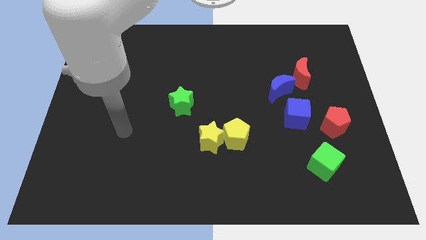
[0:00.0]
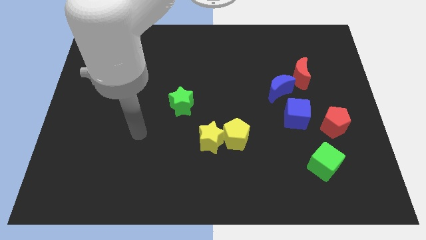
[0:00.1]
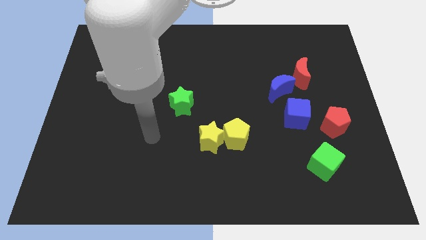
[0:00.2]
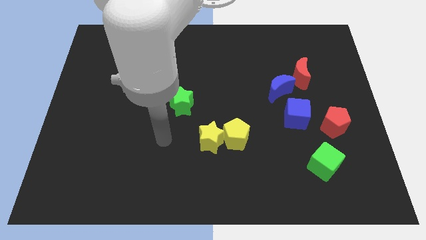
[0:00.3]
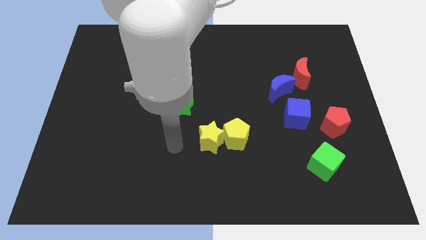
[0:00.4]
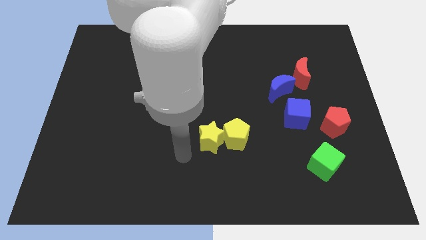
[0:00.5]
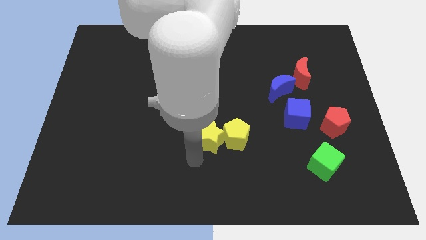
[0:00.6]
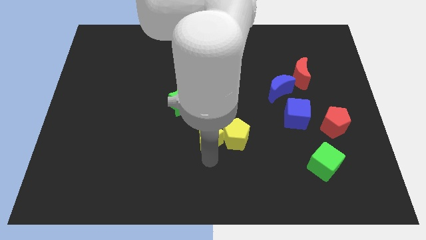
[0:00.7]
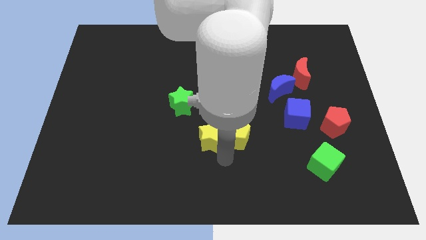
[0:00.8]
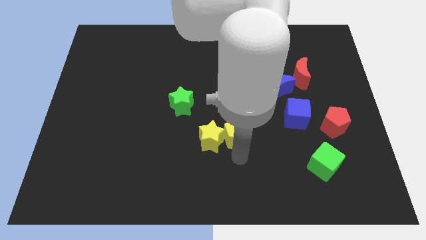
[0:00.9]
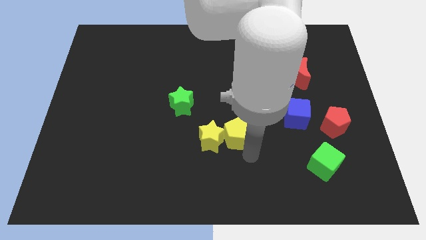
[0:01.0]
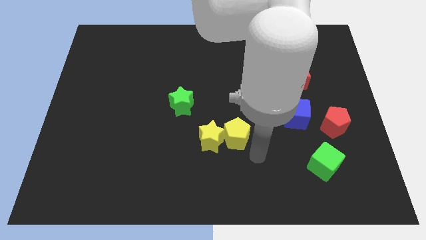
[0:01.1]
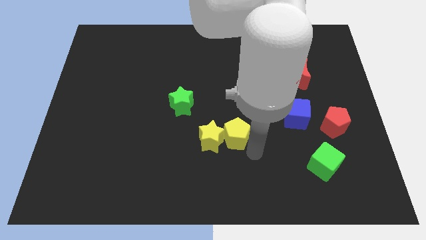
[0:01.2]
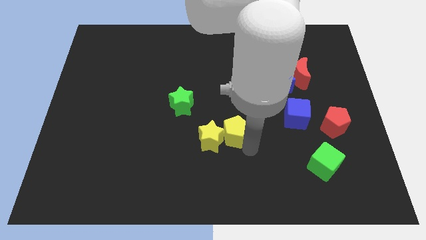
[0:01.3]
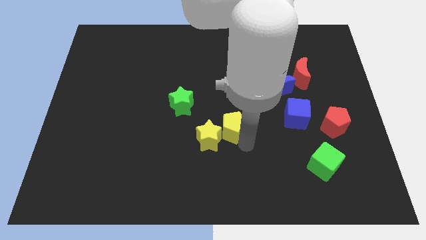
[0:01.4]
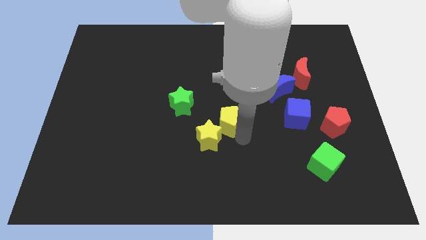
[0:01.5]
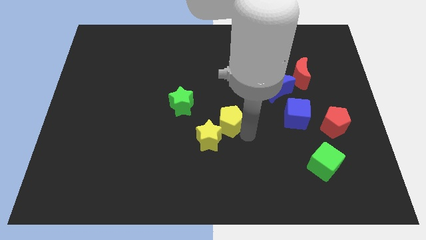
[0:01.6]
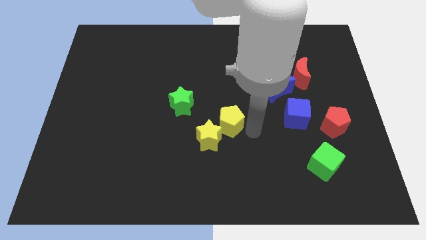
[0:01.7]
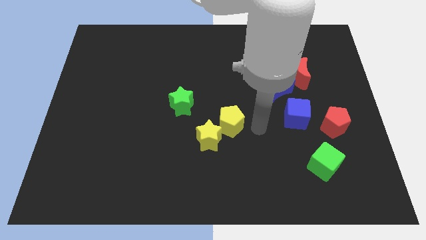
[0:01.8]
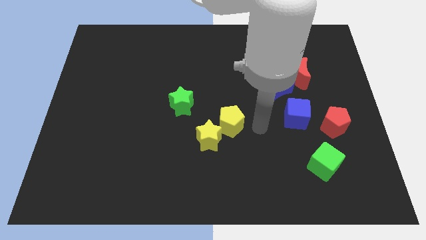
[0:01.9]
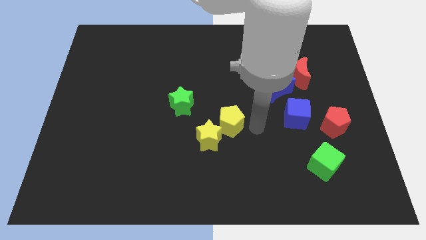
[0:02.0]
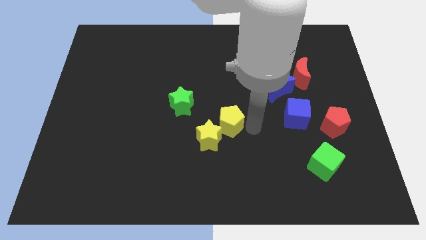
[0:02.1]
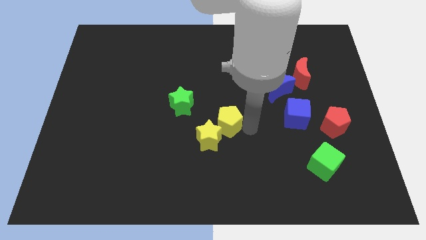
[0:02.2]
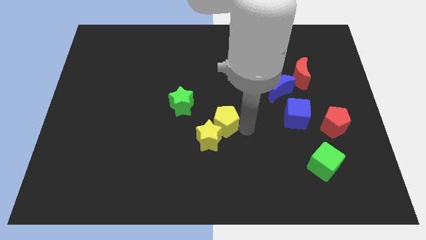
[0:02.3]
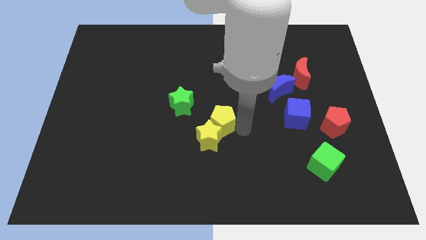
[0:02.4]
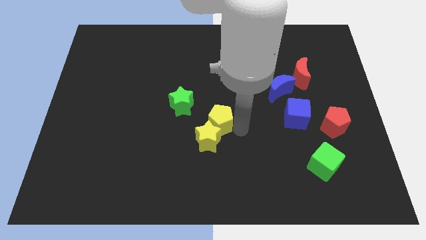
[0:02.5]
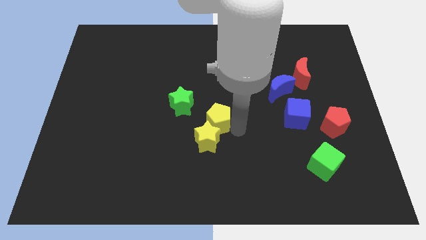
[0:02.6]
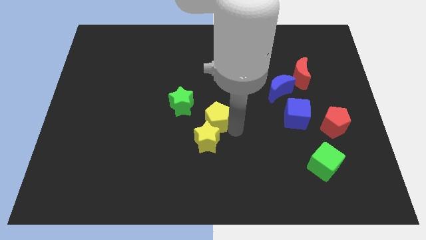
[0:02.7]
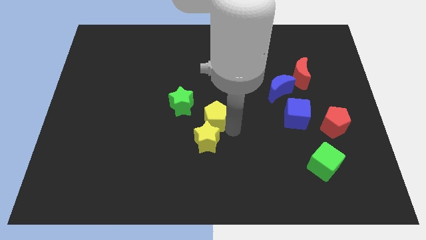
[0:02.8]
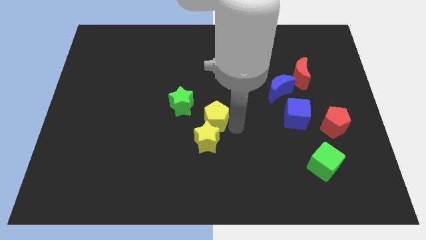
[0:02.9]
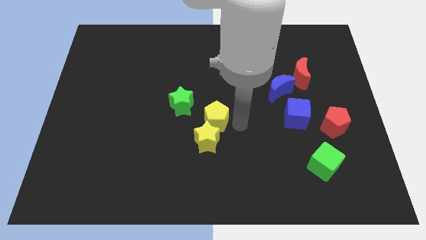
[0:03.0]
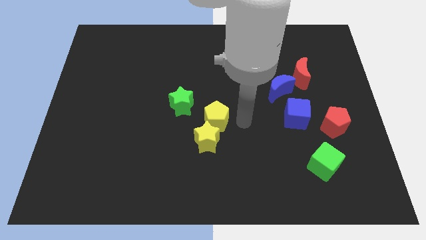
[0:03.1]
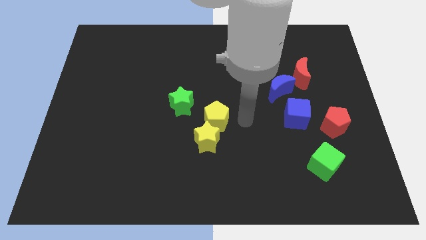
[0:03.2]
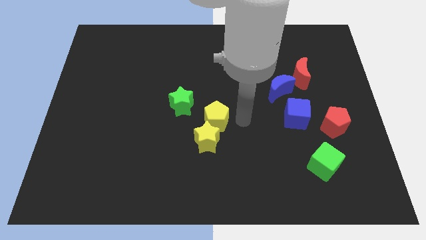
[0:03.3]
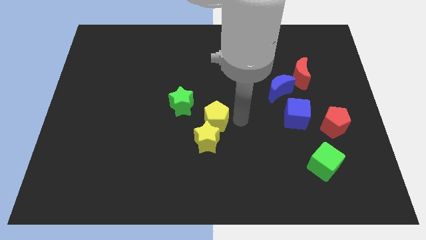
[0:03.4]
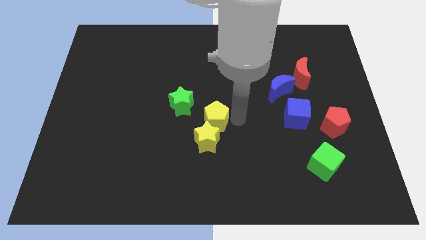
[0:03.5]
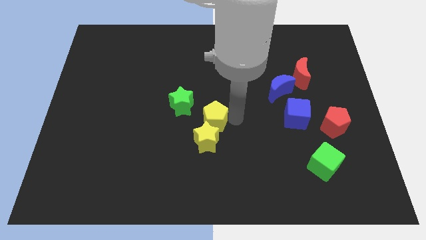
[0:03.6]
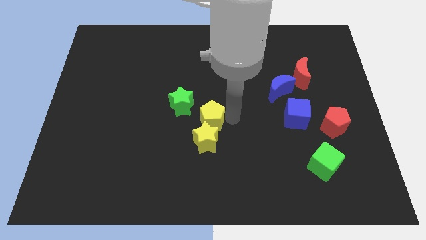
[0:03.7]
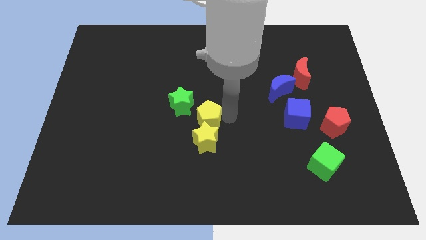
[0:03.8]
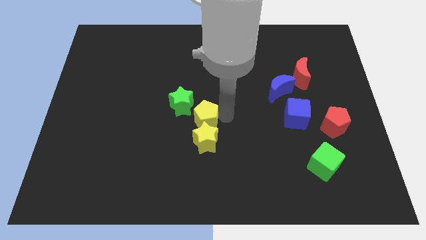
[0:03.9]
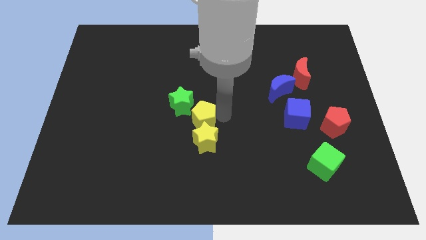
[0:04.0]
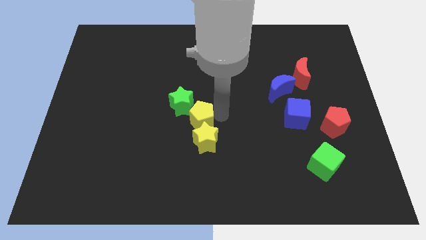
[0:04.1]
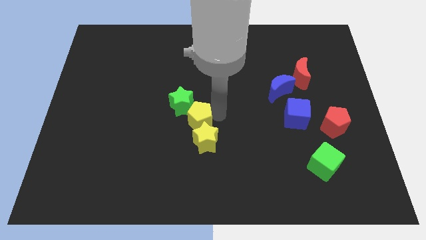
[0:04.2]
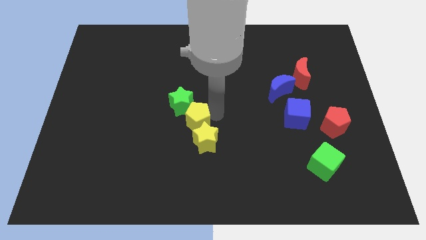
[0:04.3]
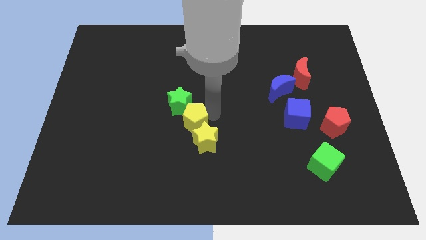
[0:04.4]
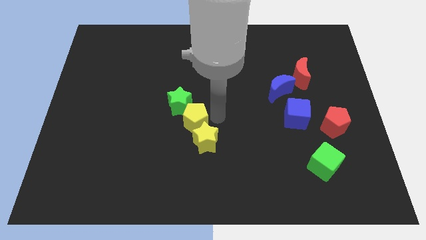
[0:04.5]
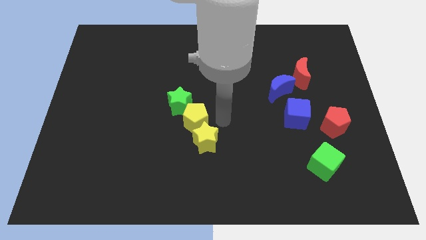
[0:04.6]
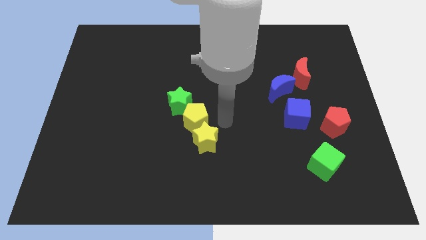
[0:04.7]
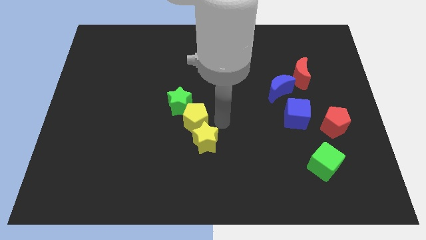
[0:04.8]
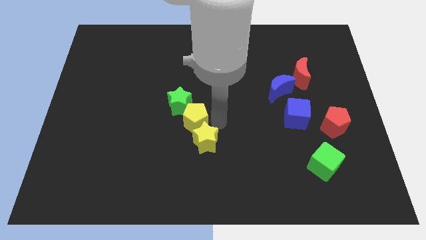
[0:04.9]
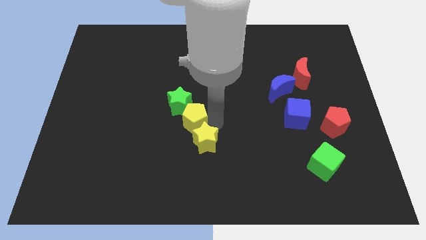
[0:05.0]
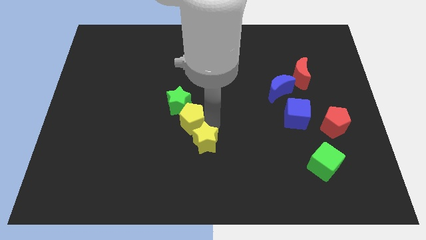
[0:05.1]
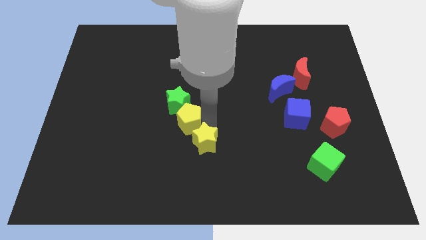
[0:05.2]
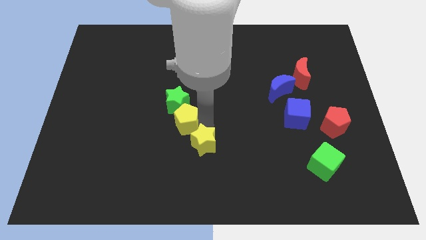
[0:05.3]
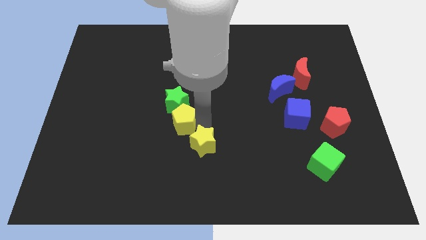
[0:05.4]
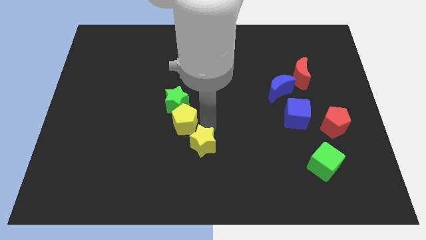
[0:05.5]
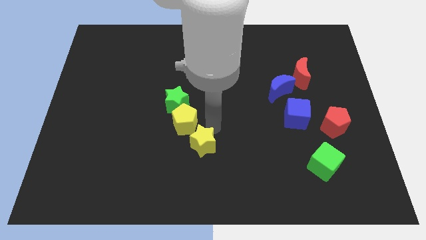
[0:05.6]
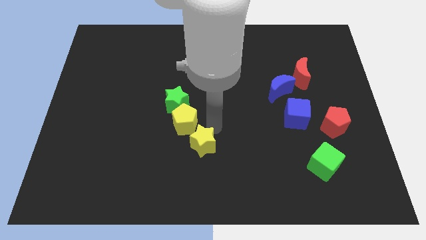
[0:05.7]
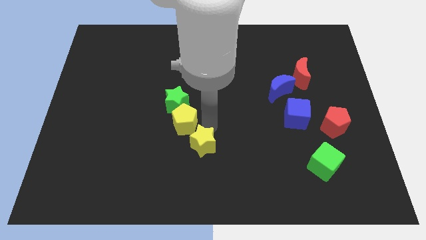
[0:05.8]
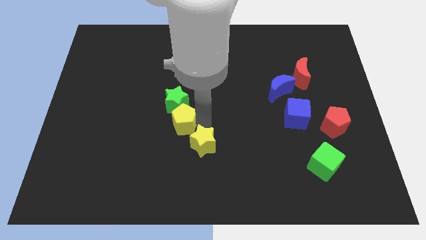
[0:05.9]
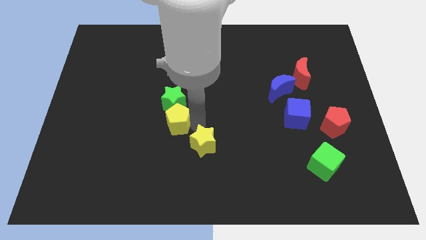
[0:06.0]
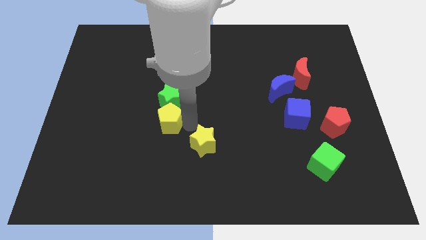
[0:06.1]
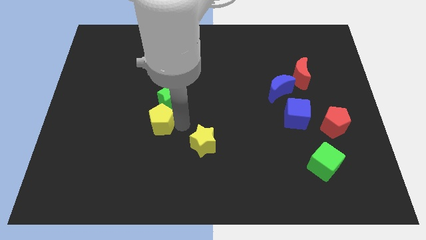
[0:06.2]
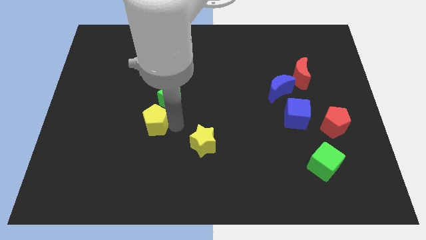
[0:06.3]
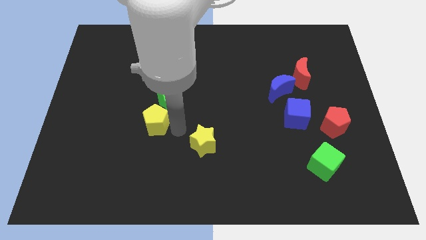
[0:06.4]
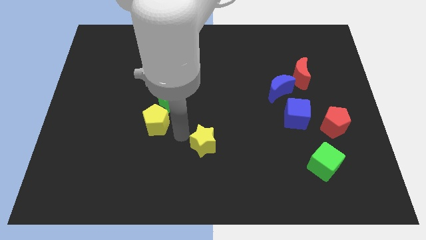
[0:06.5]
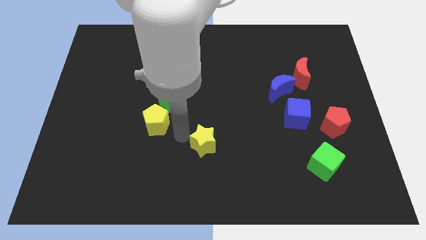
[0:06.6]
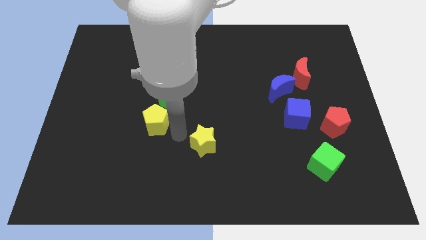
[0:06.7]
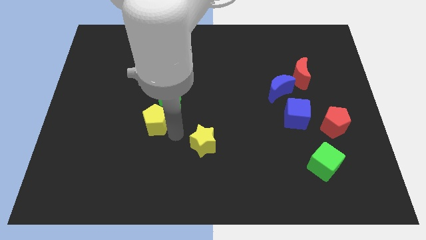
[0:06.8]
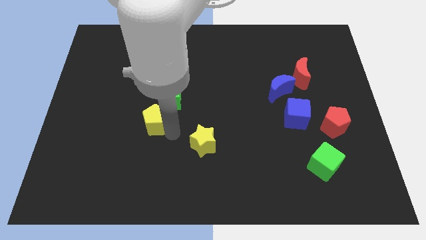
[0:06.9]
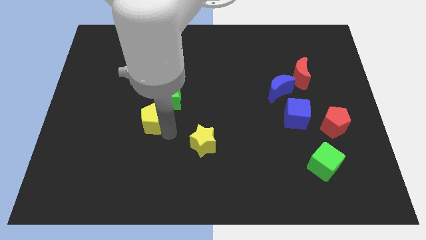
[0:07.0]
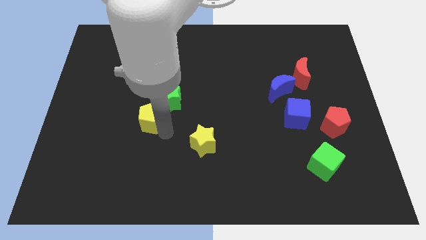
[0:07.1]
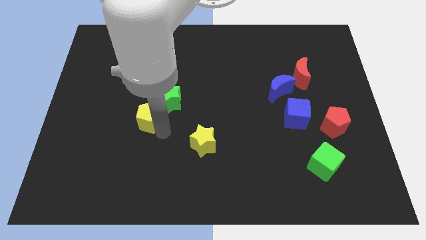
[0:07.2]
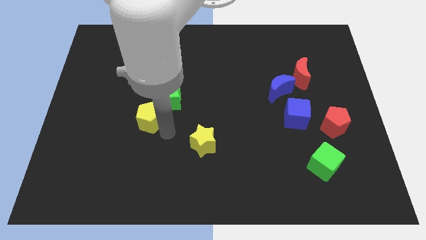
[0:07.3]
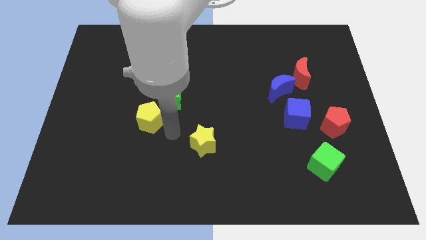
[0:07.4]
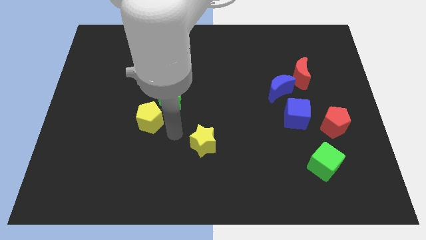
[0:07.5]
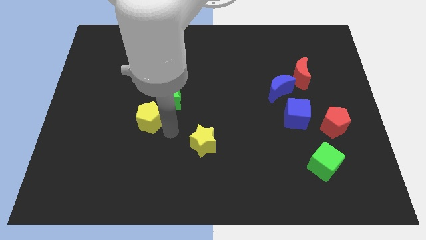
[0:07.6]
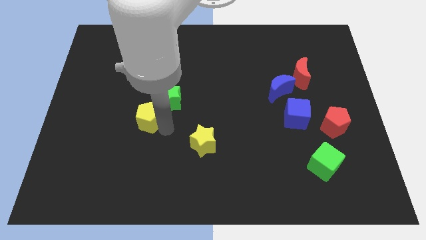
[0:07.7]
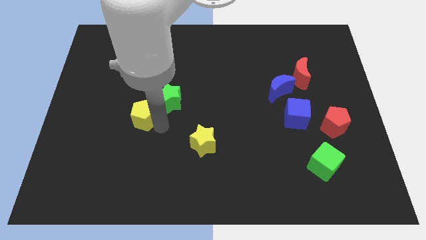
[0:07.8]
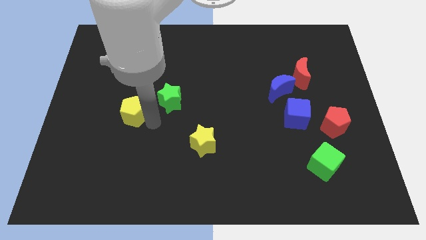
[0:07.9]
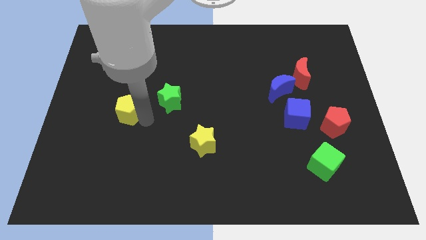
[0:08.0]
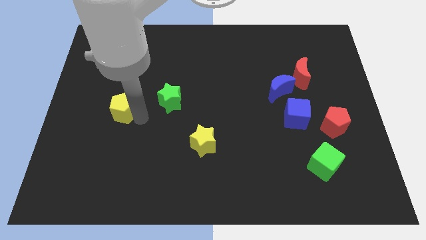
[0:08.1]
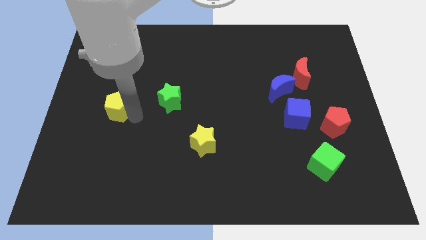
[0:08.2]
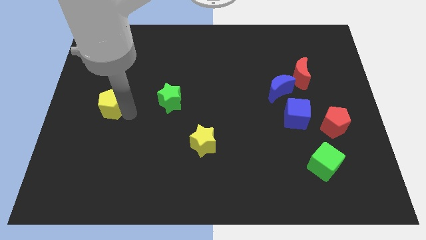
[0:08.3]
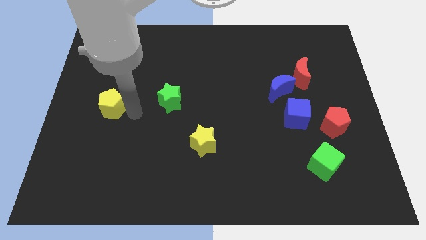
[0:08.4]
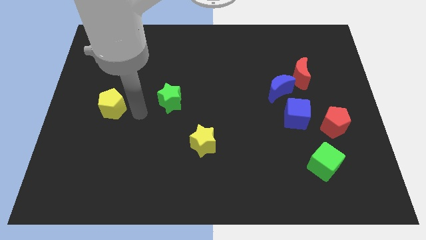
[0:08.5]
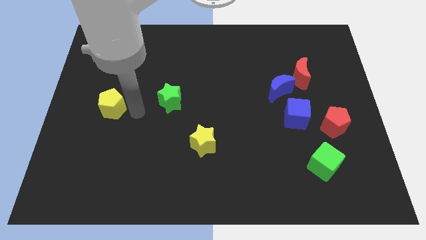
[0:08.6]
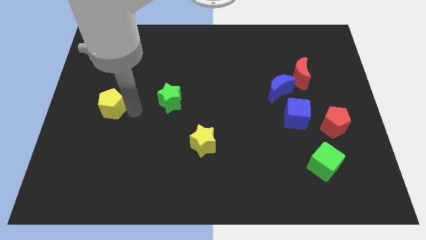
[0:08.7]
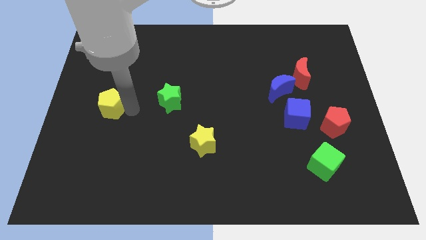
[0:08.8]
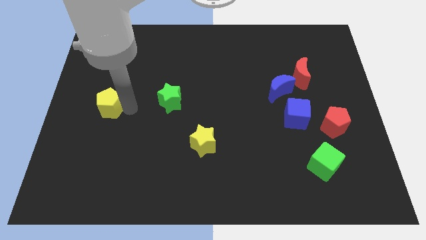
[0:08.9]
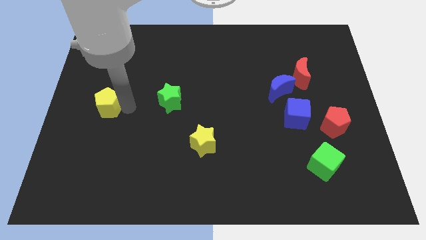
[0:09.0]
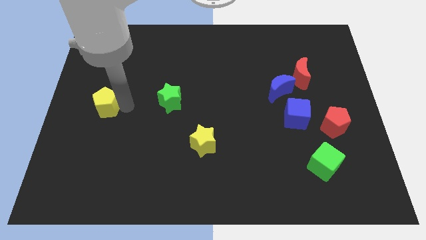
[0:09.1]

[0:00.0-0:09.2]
move the yellow pentagon to the center left
